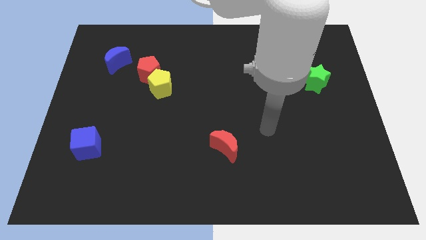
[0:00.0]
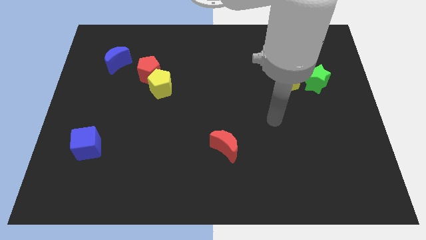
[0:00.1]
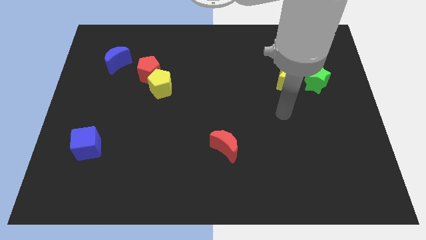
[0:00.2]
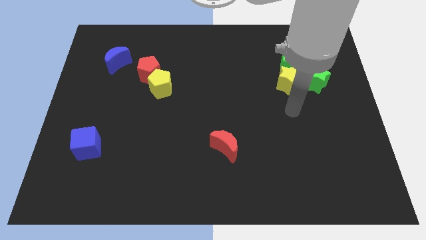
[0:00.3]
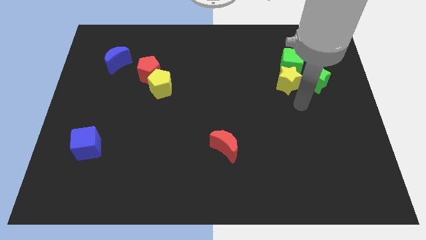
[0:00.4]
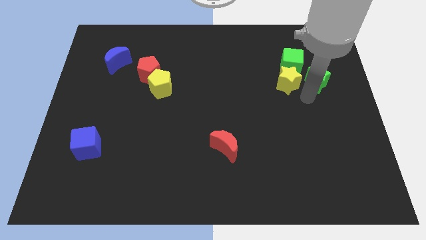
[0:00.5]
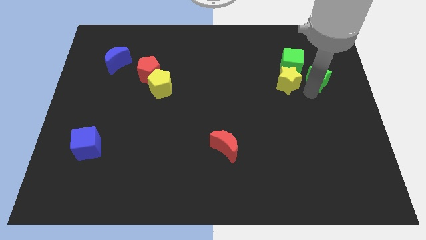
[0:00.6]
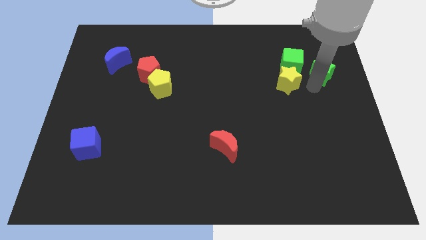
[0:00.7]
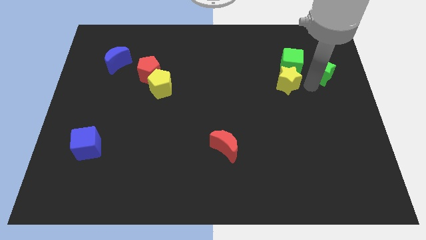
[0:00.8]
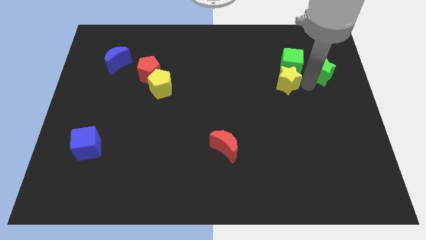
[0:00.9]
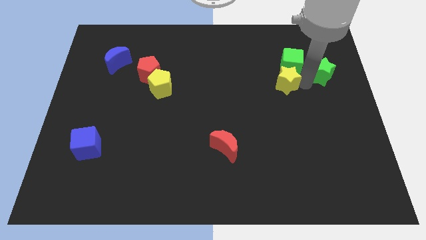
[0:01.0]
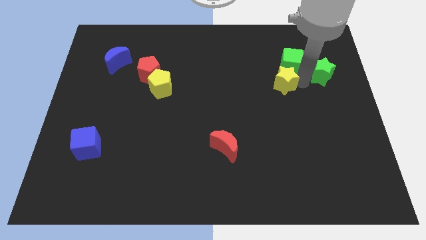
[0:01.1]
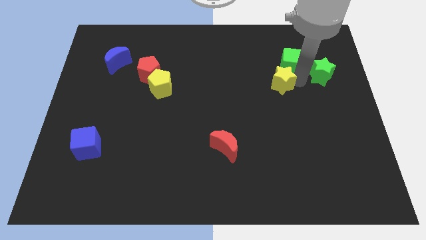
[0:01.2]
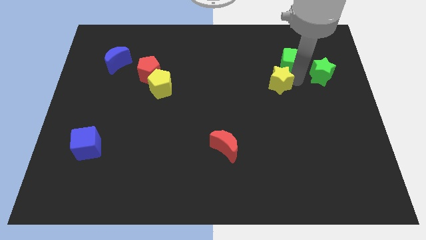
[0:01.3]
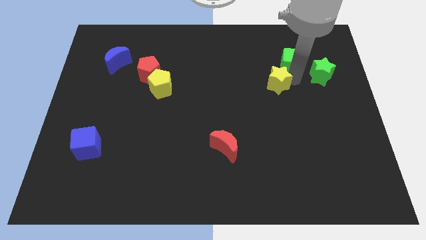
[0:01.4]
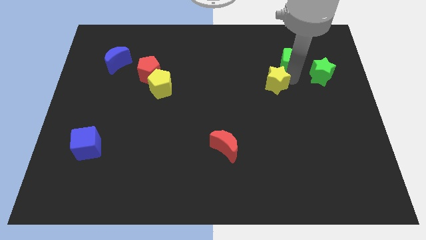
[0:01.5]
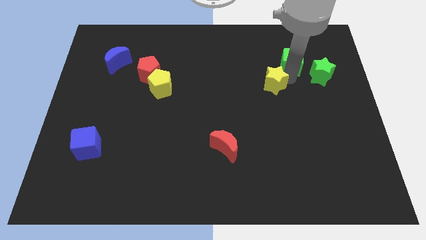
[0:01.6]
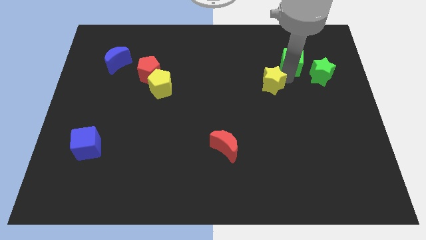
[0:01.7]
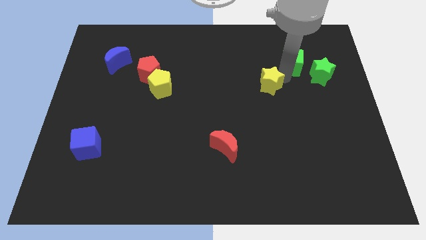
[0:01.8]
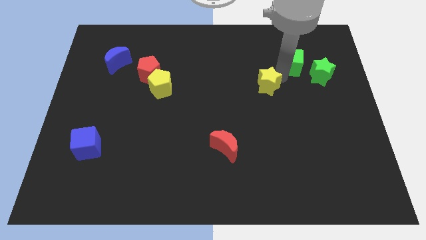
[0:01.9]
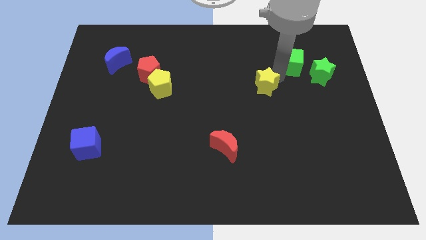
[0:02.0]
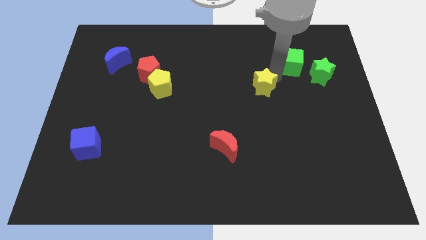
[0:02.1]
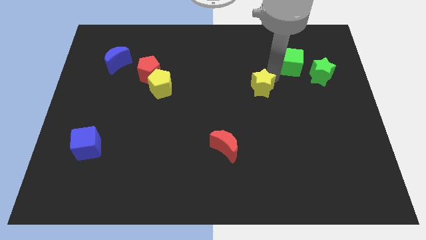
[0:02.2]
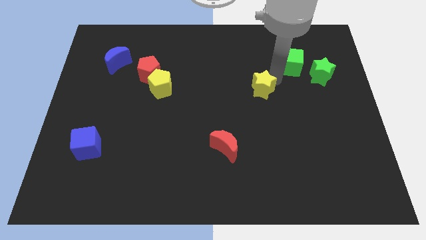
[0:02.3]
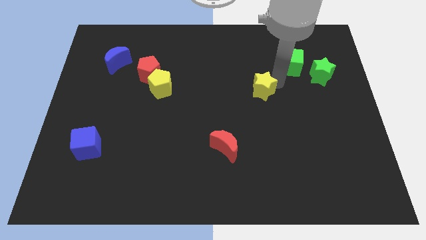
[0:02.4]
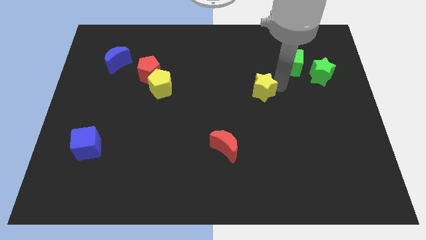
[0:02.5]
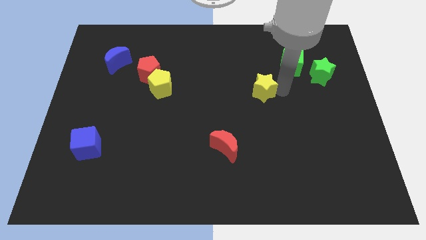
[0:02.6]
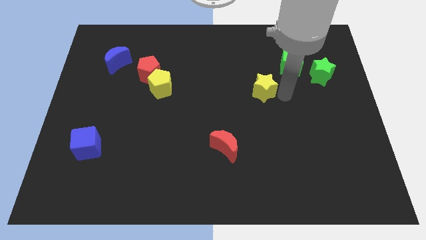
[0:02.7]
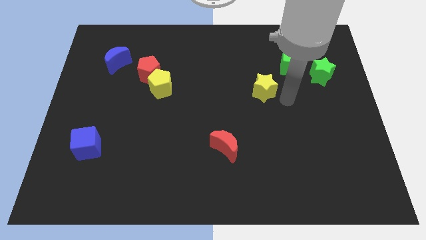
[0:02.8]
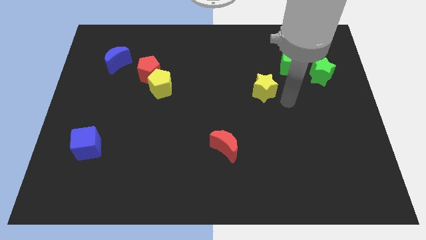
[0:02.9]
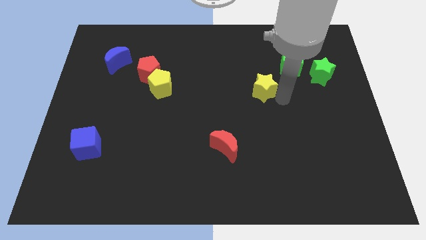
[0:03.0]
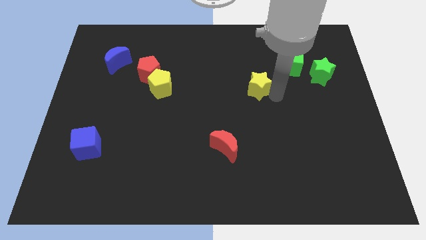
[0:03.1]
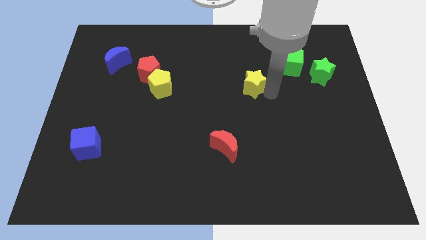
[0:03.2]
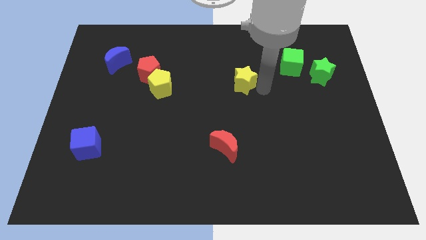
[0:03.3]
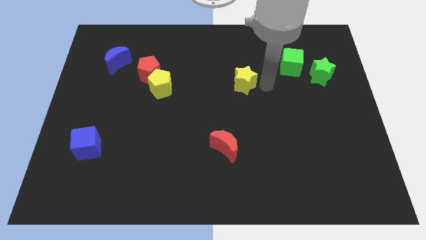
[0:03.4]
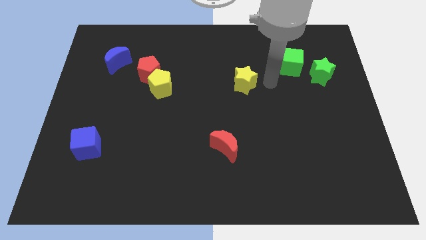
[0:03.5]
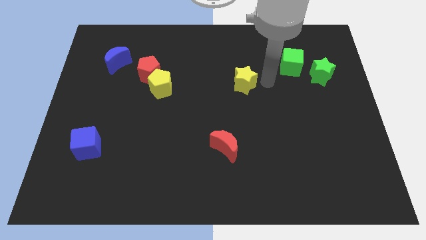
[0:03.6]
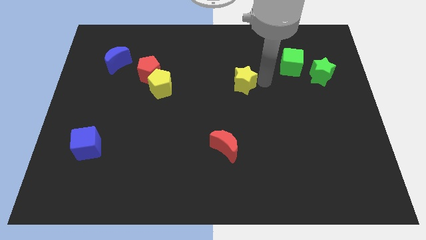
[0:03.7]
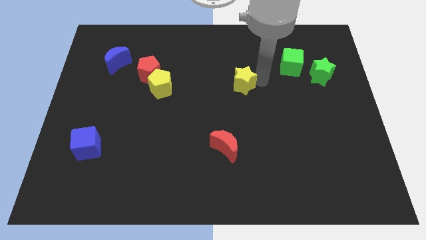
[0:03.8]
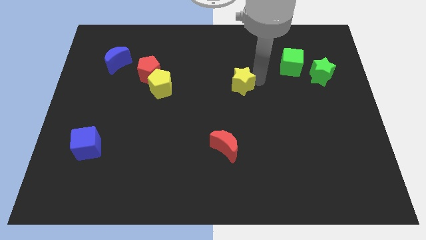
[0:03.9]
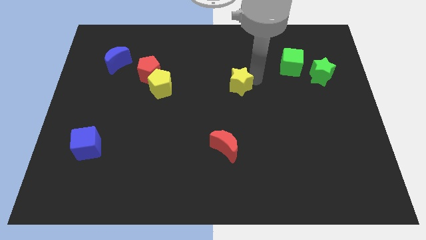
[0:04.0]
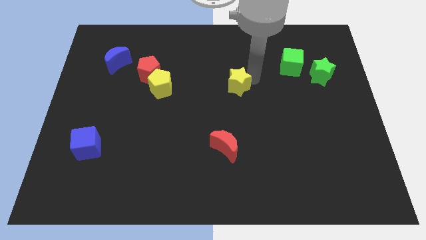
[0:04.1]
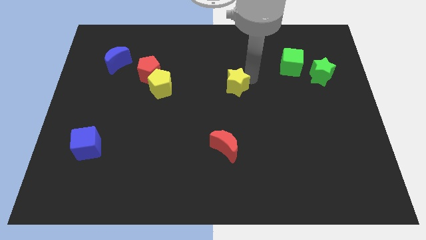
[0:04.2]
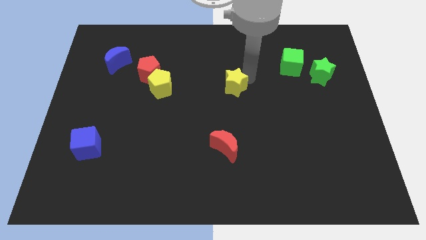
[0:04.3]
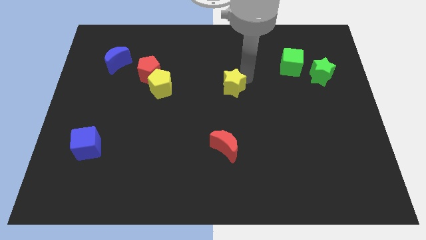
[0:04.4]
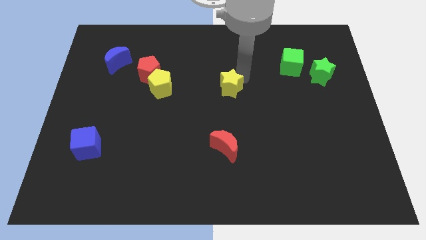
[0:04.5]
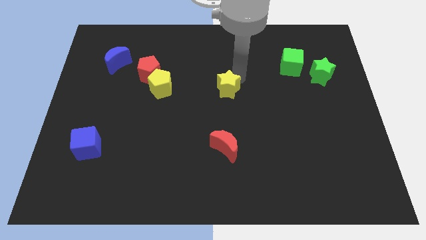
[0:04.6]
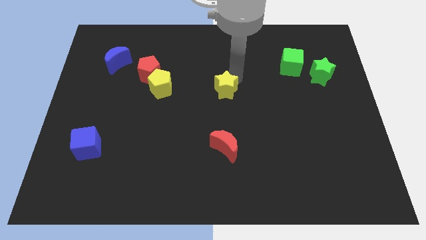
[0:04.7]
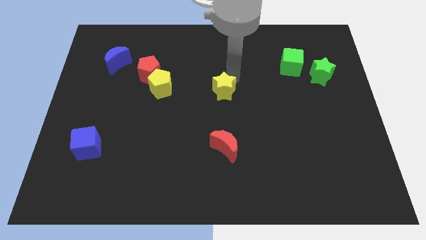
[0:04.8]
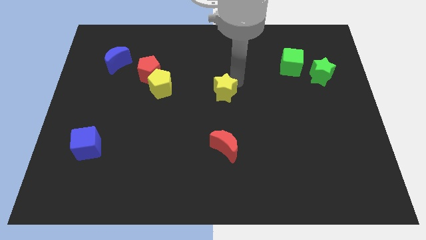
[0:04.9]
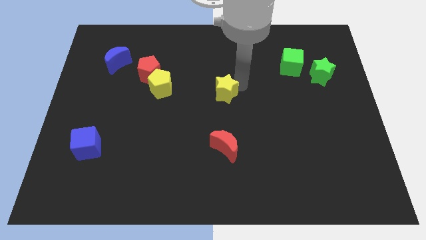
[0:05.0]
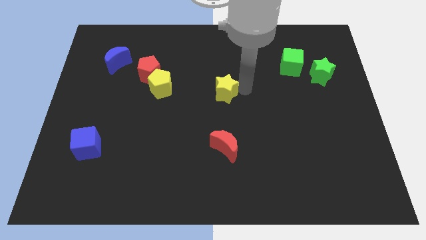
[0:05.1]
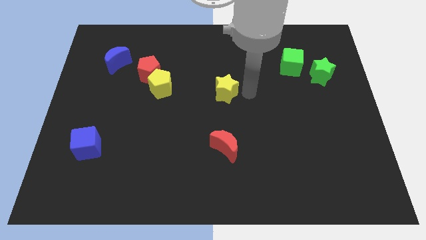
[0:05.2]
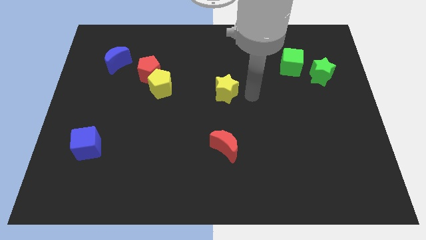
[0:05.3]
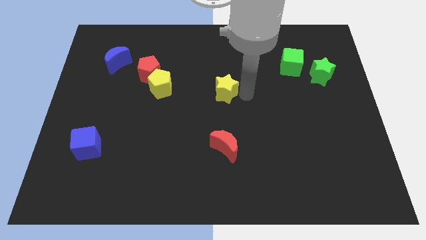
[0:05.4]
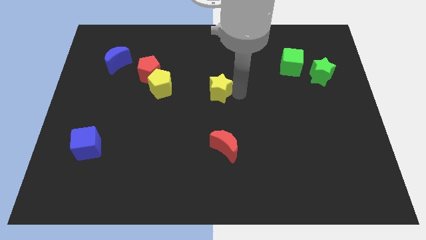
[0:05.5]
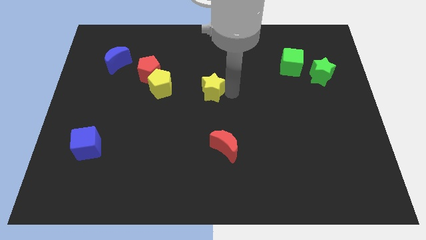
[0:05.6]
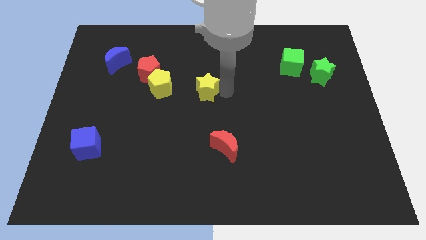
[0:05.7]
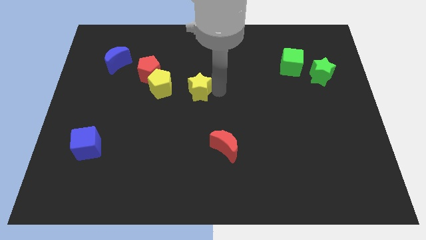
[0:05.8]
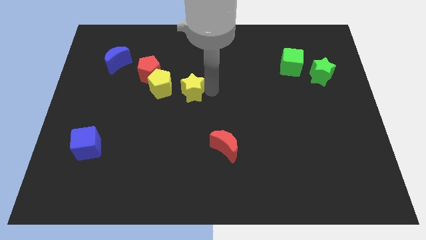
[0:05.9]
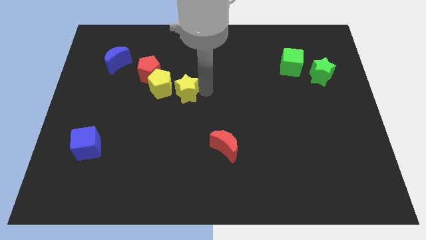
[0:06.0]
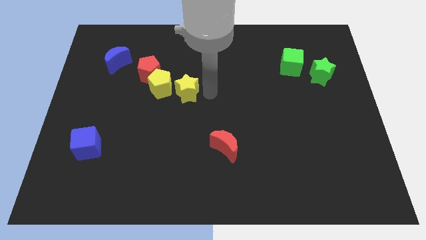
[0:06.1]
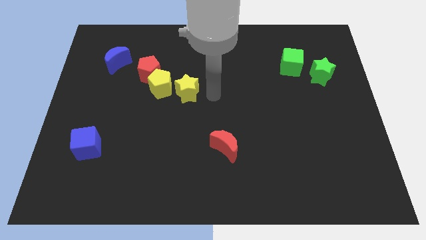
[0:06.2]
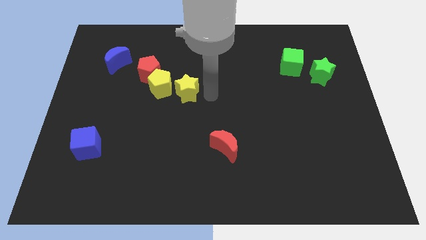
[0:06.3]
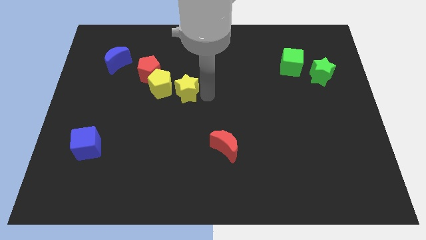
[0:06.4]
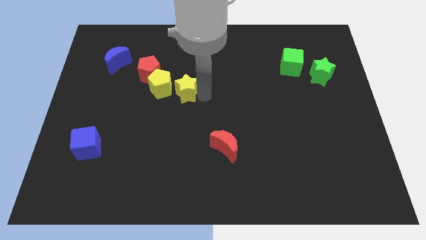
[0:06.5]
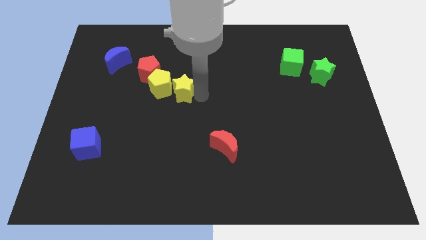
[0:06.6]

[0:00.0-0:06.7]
put the yellow star next to the yellow pentagon
